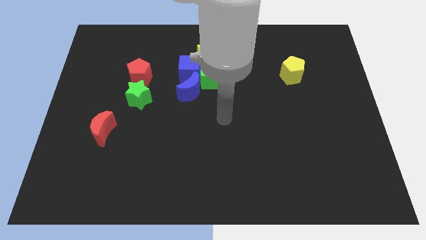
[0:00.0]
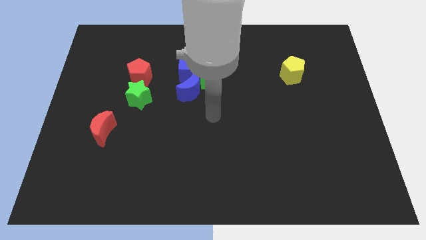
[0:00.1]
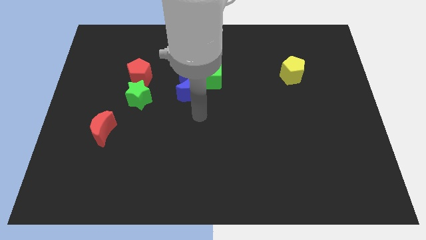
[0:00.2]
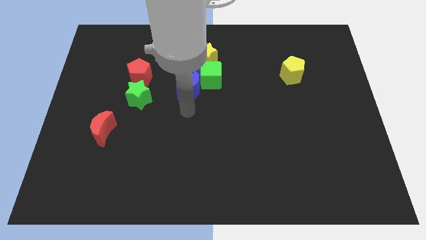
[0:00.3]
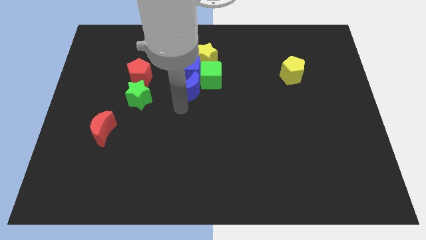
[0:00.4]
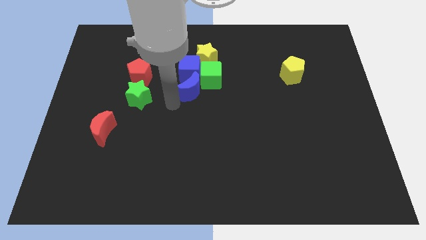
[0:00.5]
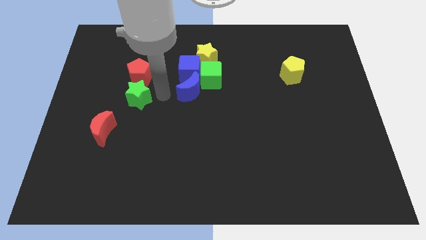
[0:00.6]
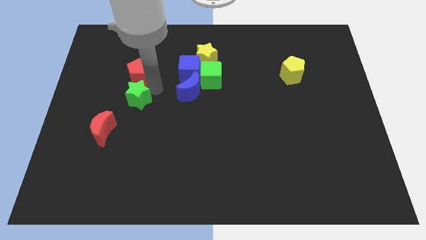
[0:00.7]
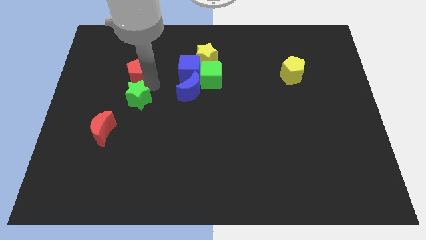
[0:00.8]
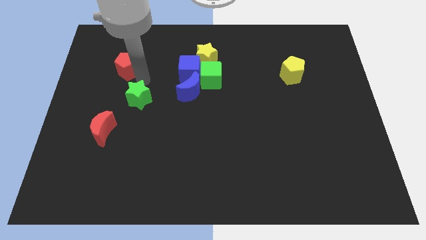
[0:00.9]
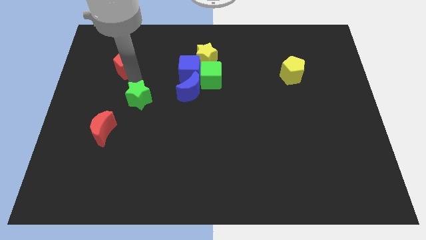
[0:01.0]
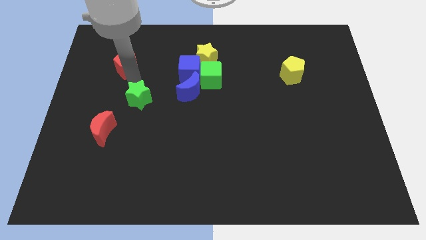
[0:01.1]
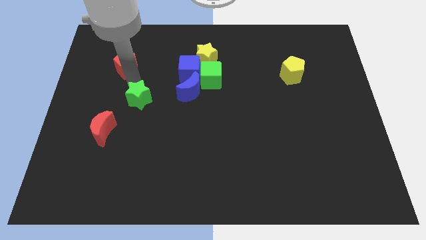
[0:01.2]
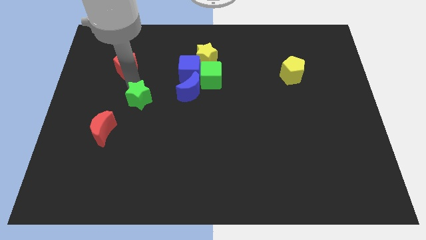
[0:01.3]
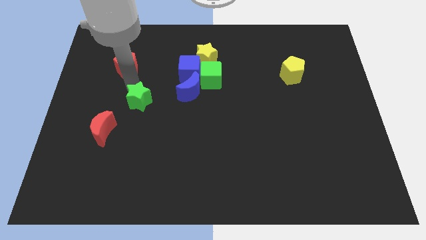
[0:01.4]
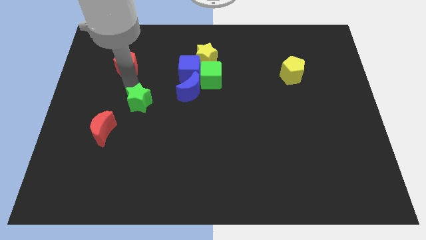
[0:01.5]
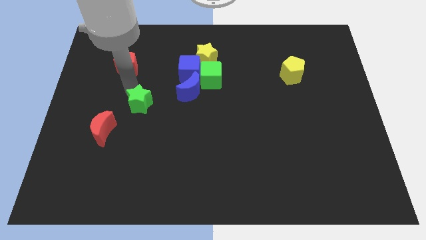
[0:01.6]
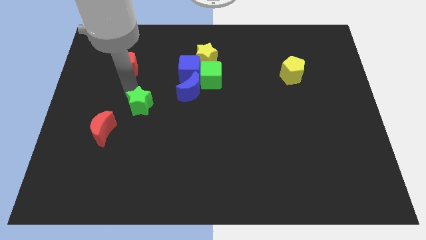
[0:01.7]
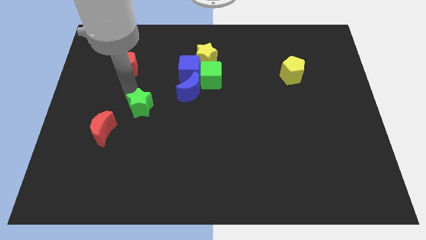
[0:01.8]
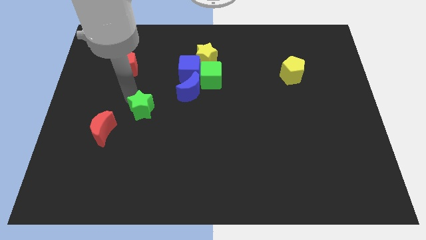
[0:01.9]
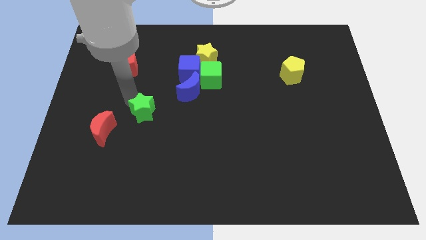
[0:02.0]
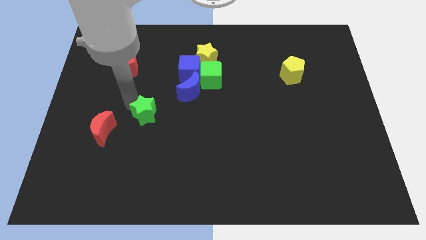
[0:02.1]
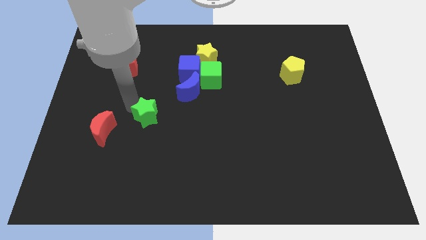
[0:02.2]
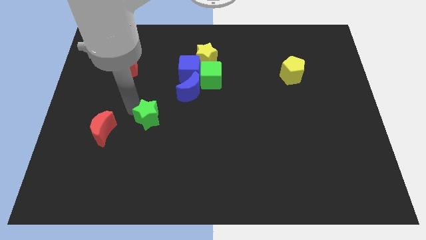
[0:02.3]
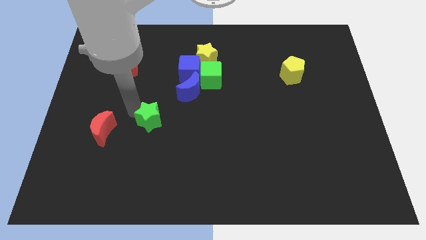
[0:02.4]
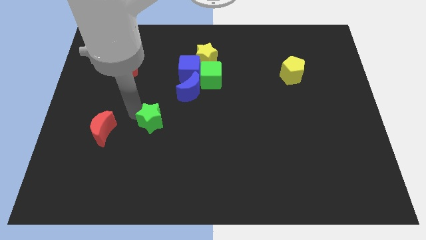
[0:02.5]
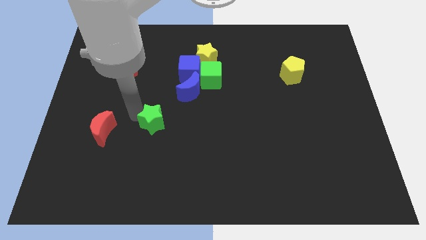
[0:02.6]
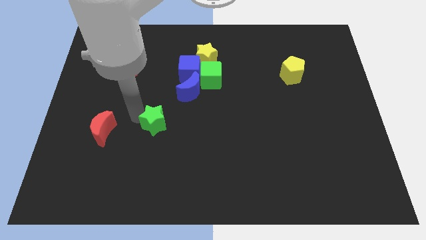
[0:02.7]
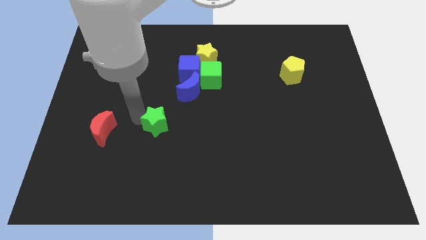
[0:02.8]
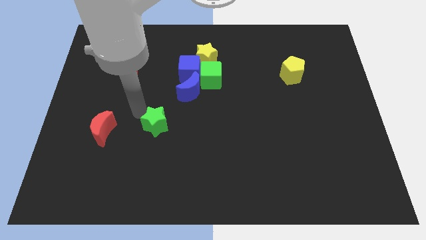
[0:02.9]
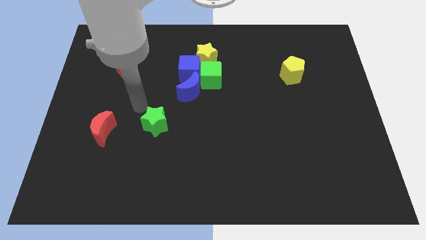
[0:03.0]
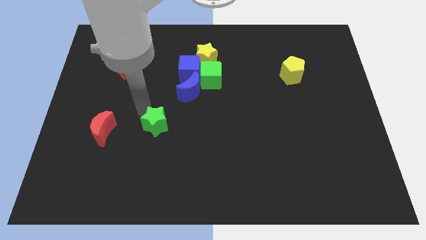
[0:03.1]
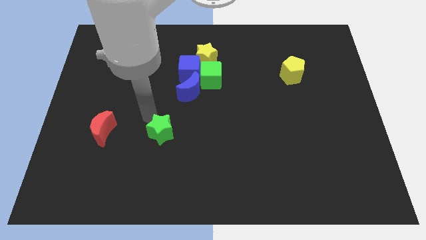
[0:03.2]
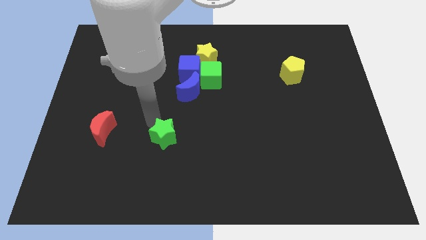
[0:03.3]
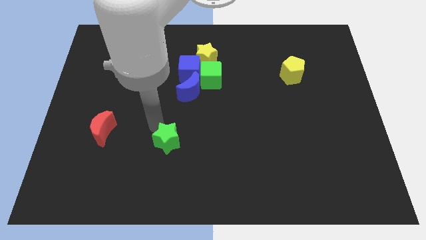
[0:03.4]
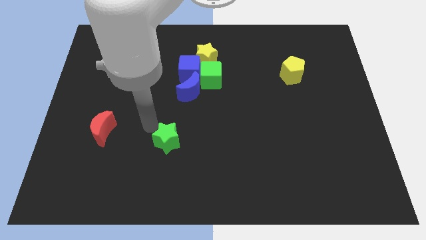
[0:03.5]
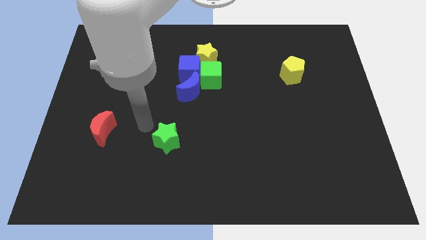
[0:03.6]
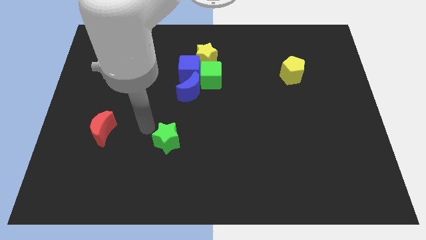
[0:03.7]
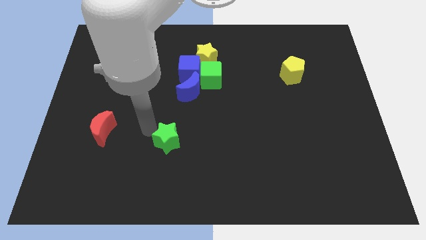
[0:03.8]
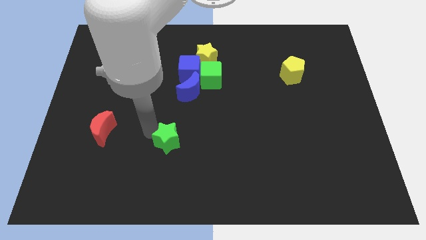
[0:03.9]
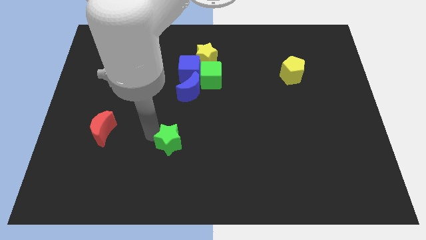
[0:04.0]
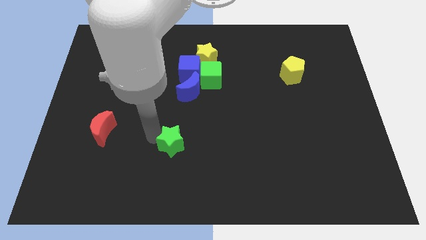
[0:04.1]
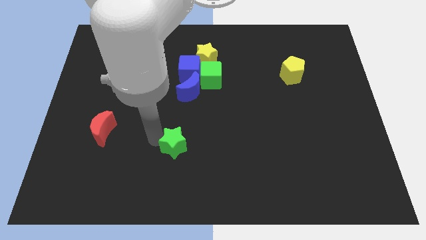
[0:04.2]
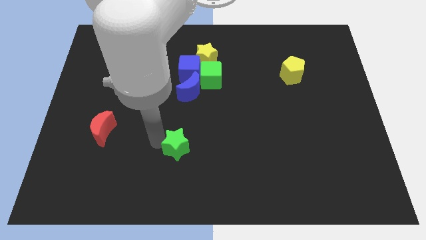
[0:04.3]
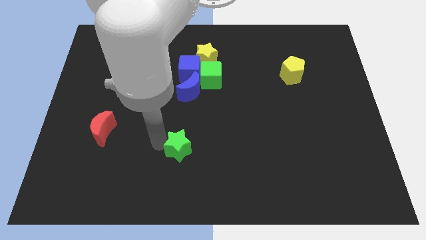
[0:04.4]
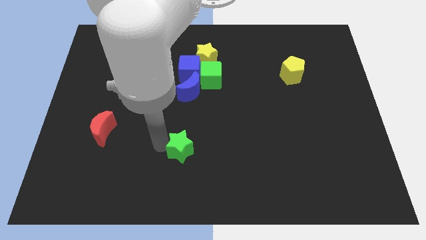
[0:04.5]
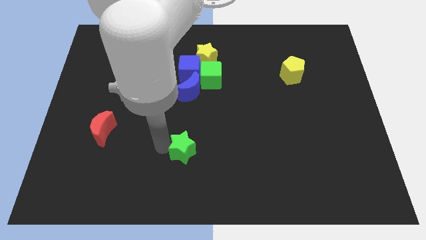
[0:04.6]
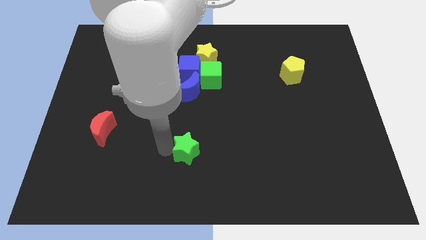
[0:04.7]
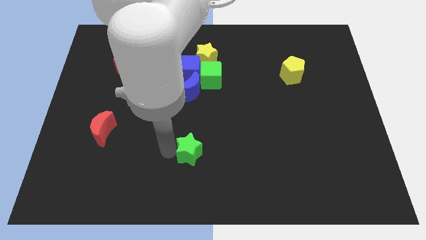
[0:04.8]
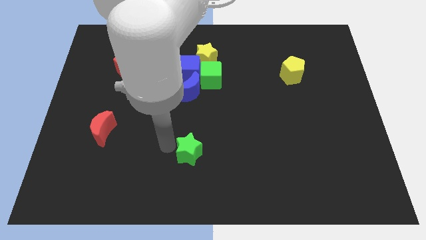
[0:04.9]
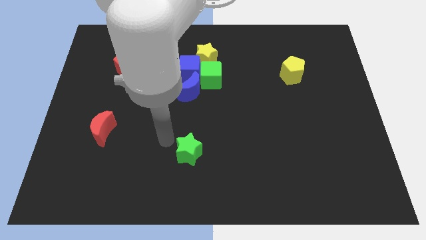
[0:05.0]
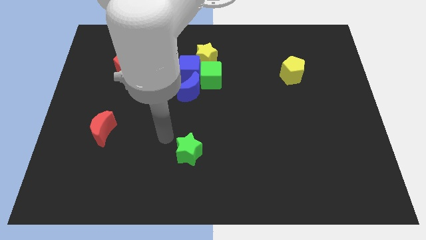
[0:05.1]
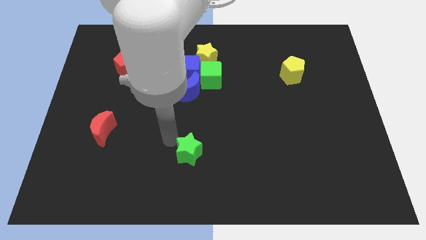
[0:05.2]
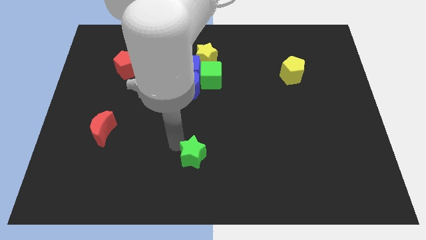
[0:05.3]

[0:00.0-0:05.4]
slide the green star diagonally down and to the right

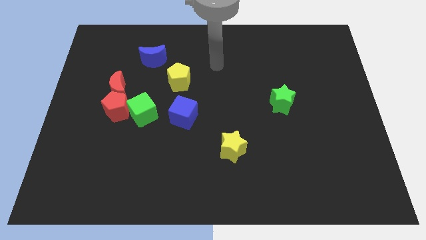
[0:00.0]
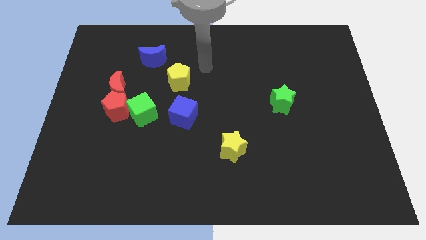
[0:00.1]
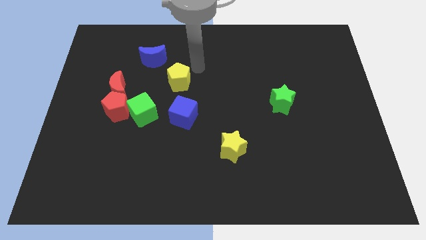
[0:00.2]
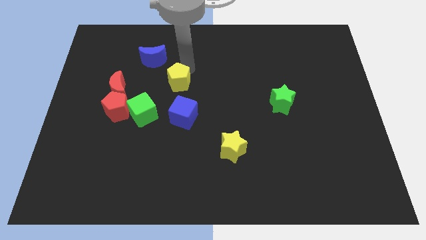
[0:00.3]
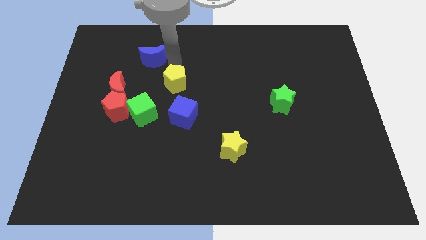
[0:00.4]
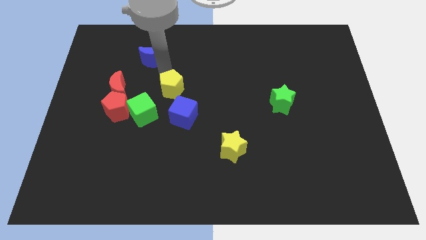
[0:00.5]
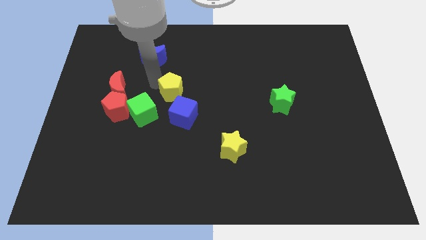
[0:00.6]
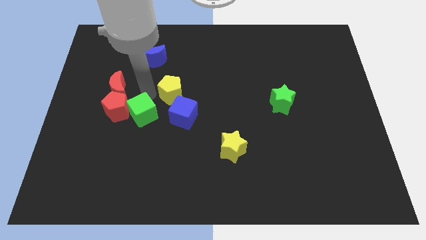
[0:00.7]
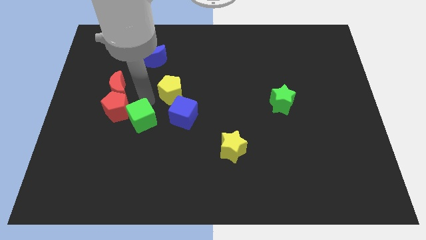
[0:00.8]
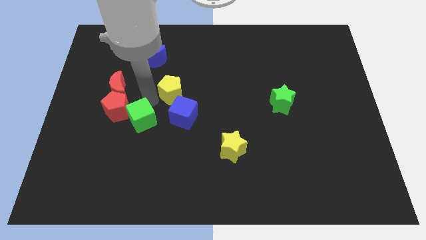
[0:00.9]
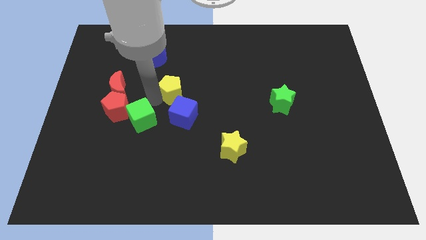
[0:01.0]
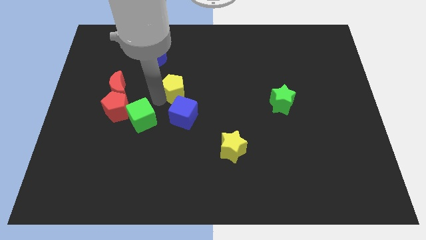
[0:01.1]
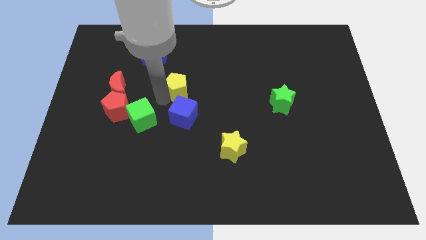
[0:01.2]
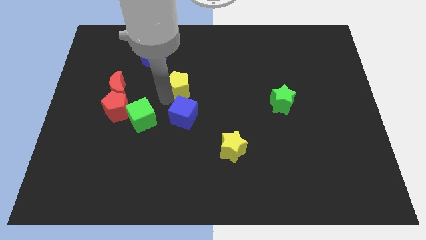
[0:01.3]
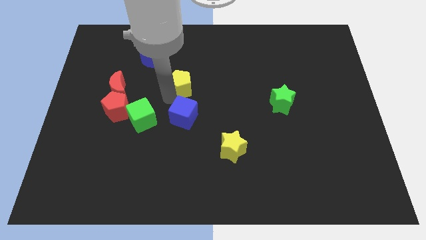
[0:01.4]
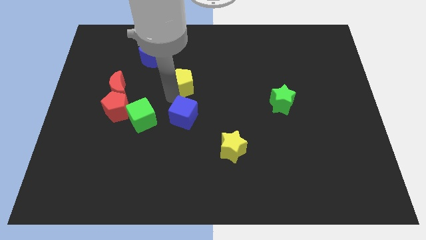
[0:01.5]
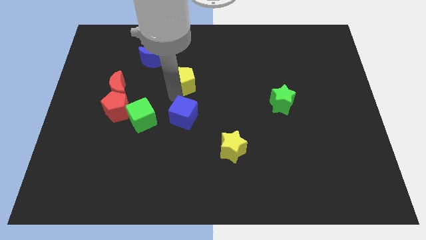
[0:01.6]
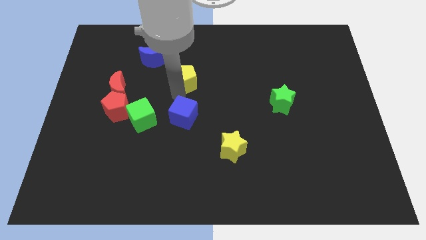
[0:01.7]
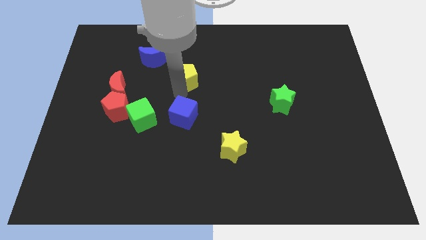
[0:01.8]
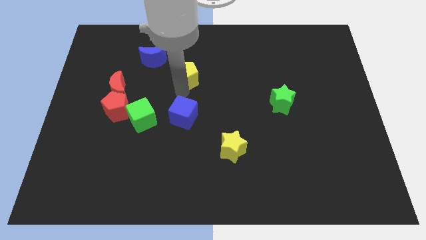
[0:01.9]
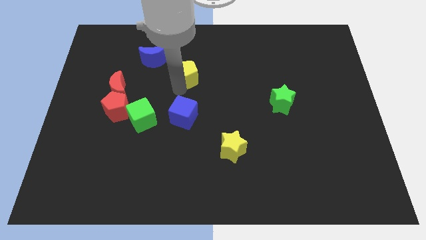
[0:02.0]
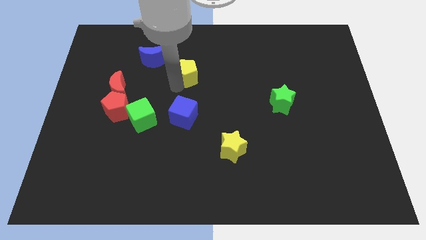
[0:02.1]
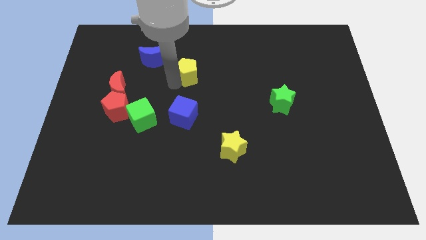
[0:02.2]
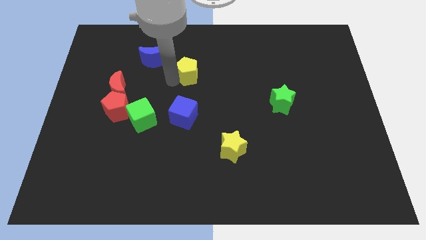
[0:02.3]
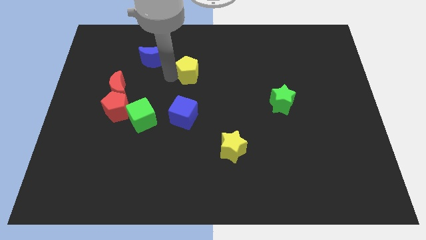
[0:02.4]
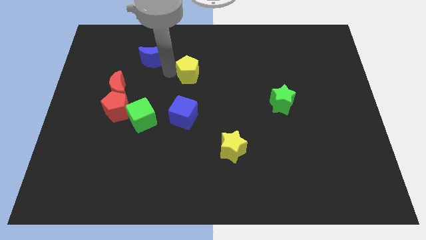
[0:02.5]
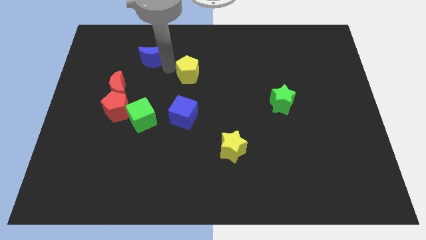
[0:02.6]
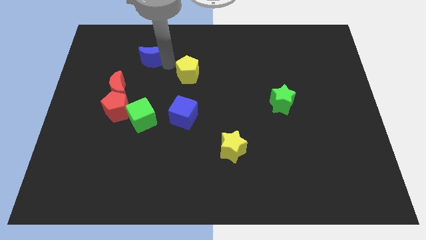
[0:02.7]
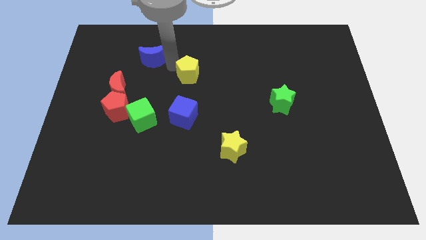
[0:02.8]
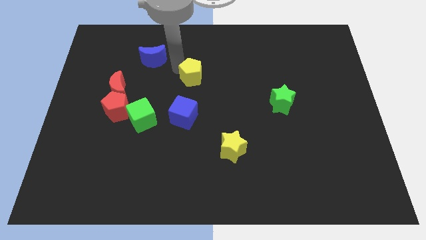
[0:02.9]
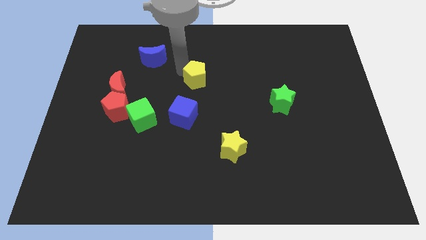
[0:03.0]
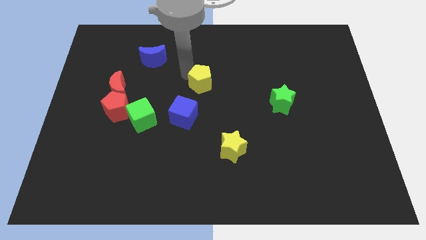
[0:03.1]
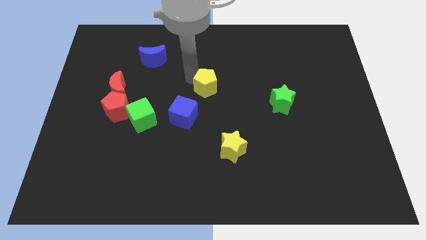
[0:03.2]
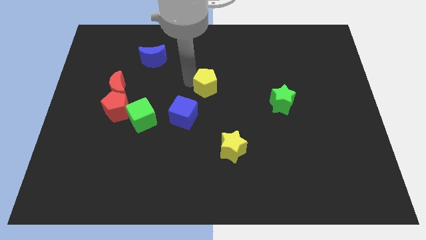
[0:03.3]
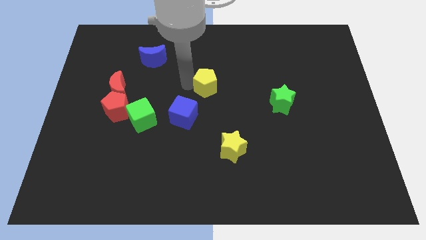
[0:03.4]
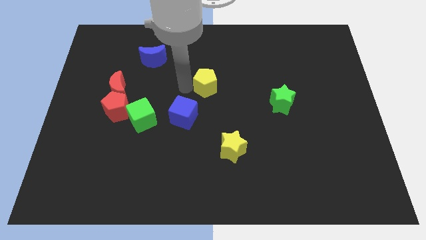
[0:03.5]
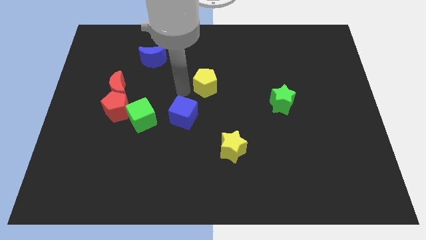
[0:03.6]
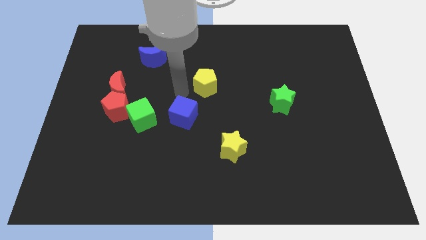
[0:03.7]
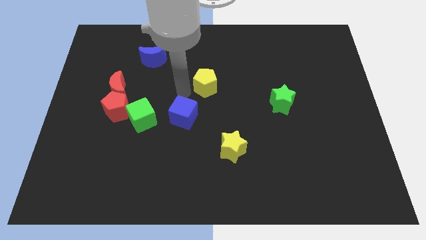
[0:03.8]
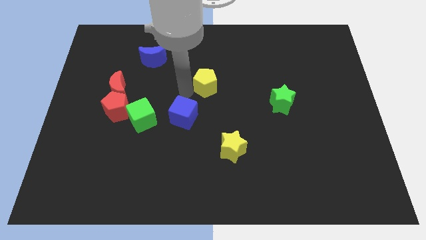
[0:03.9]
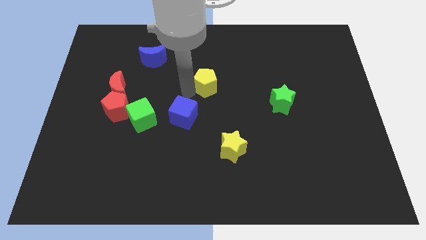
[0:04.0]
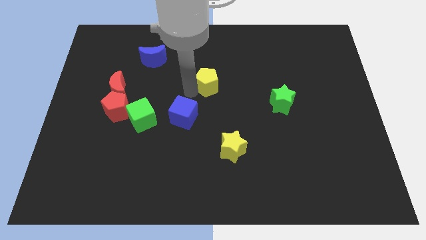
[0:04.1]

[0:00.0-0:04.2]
slide the yellow pentagon a bit to the right
